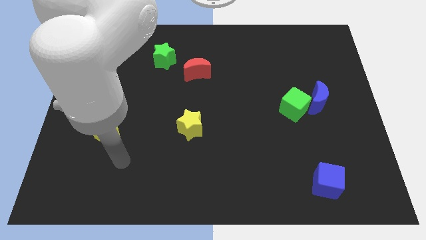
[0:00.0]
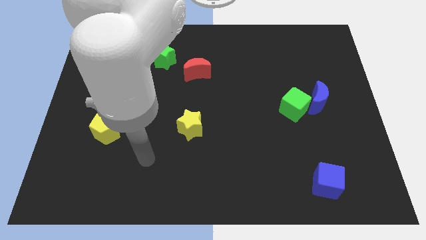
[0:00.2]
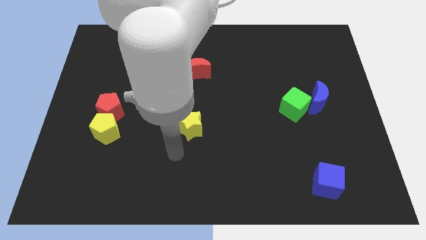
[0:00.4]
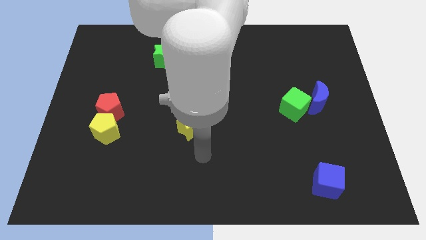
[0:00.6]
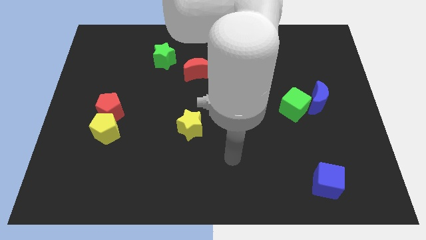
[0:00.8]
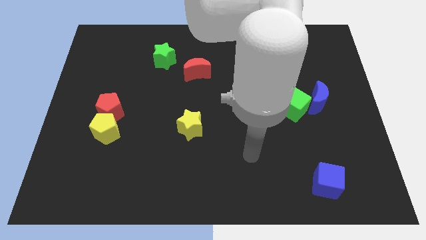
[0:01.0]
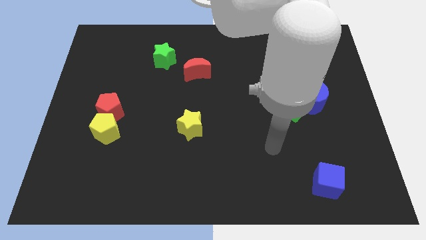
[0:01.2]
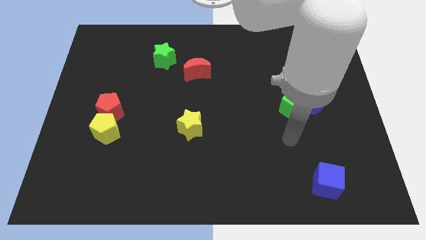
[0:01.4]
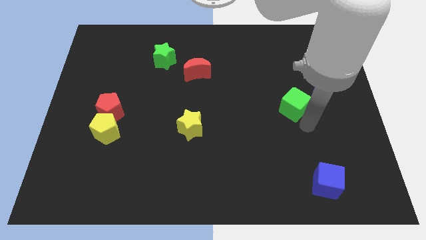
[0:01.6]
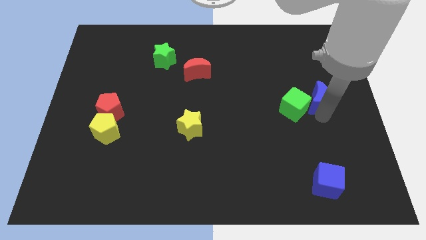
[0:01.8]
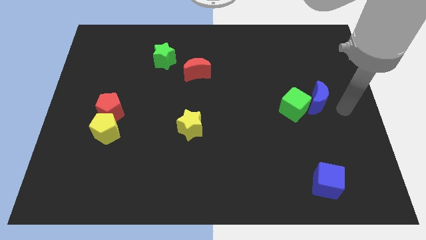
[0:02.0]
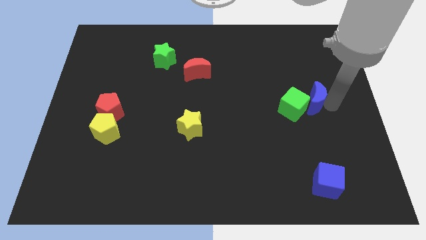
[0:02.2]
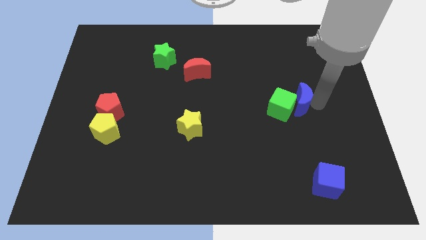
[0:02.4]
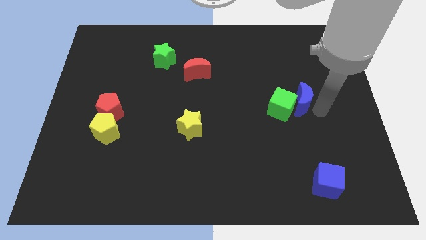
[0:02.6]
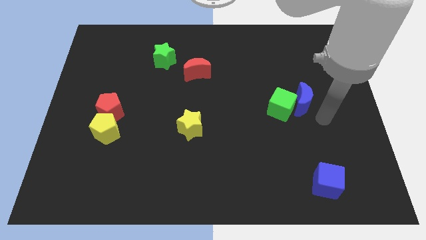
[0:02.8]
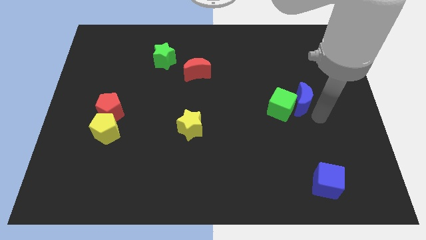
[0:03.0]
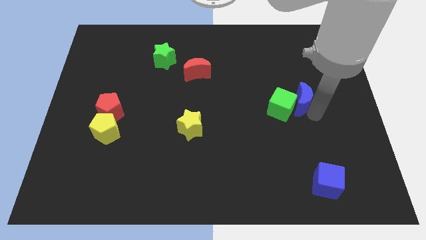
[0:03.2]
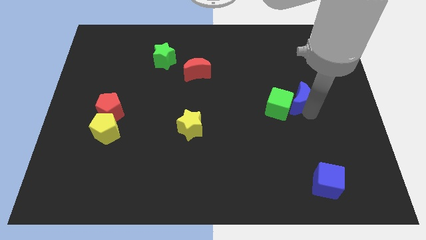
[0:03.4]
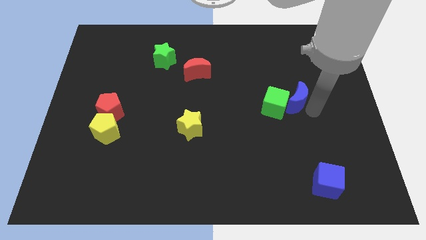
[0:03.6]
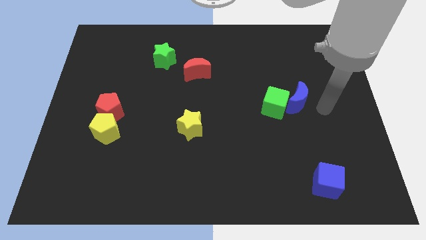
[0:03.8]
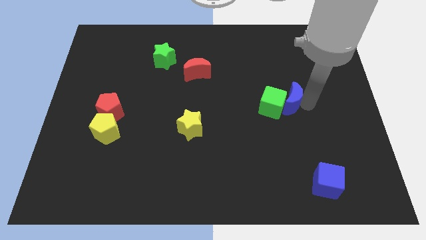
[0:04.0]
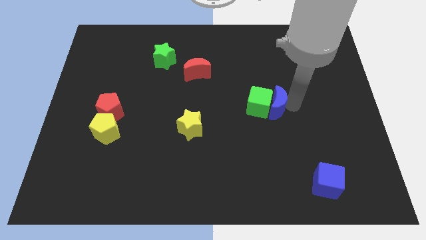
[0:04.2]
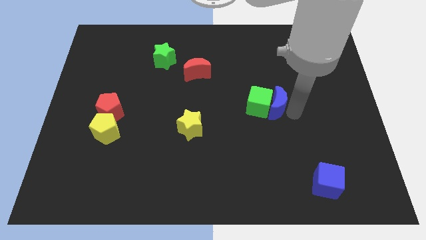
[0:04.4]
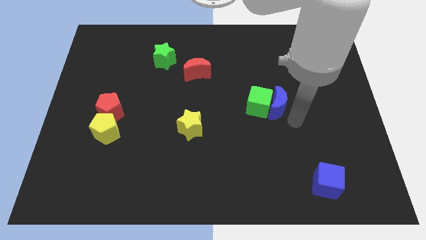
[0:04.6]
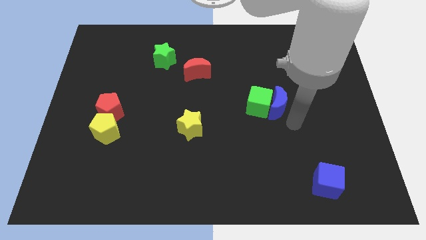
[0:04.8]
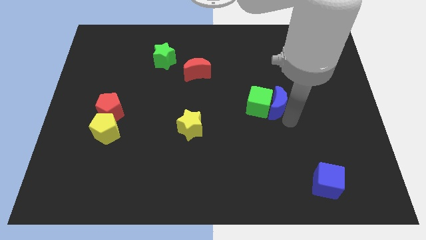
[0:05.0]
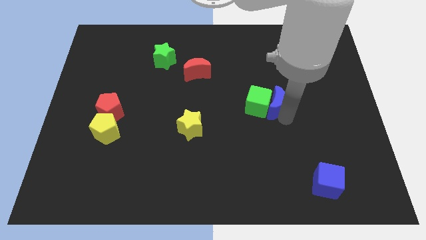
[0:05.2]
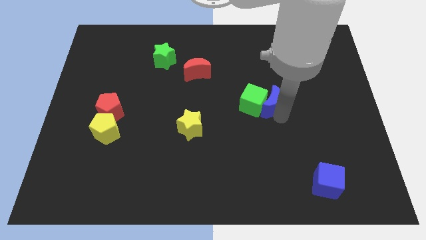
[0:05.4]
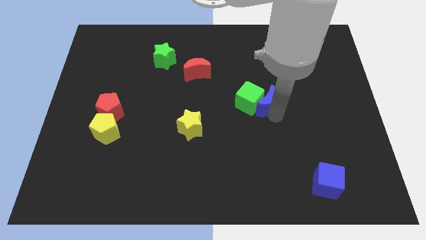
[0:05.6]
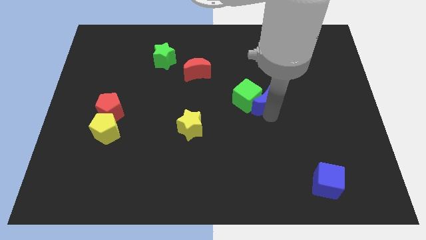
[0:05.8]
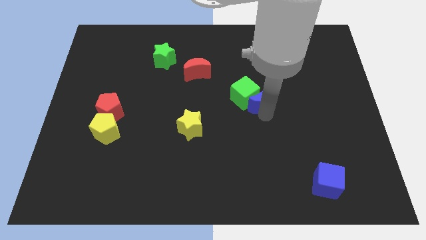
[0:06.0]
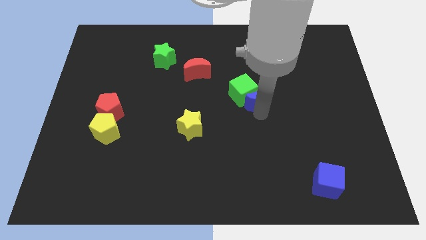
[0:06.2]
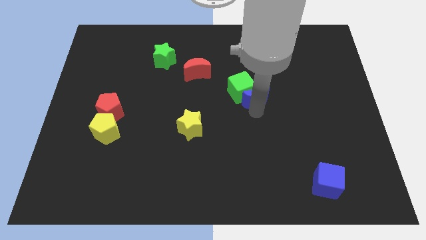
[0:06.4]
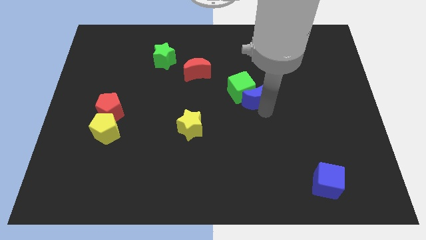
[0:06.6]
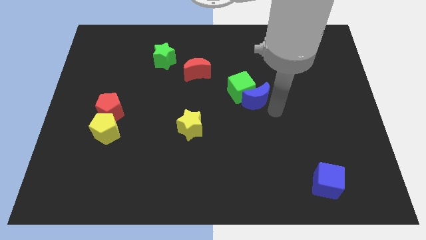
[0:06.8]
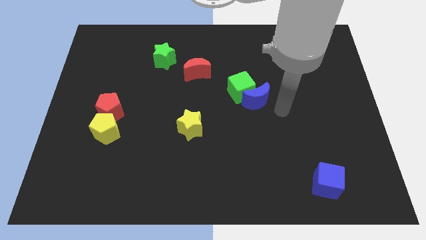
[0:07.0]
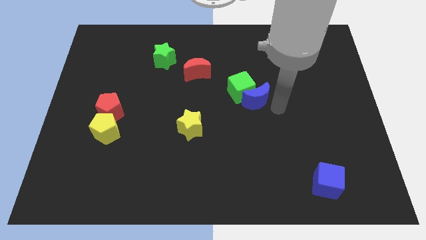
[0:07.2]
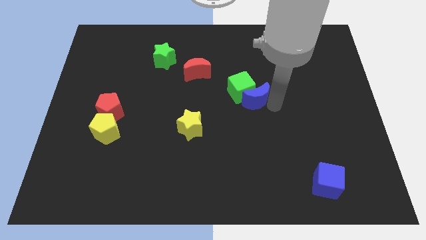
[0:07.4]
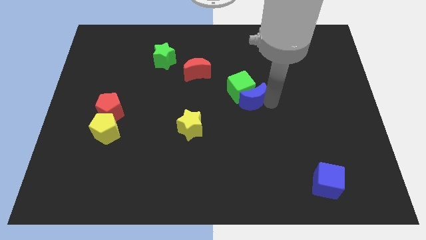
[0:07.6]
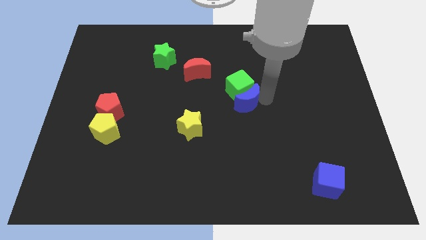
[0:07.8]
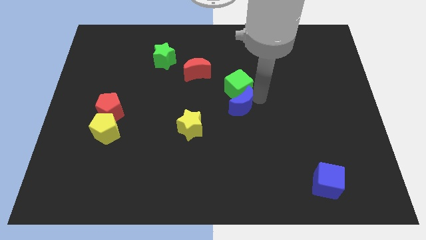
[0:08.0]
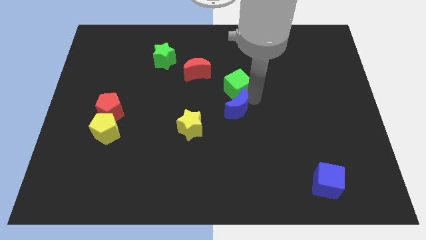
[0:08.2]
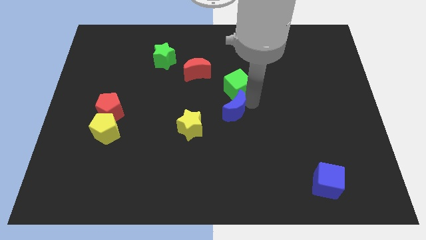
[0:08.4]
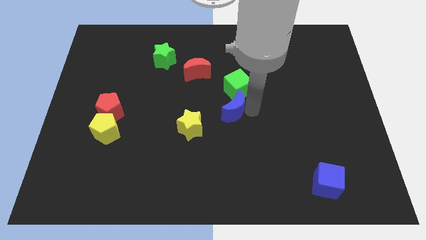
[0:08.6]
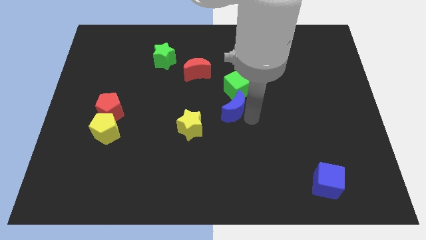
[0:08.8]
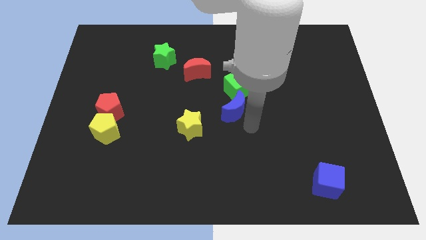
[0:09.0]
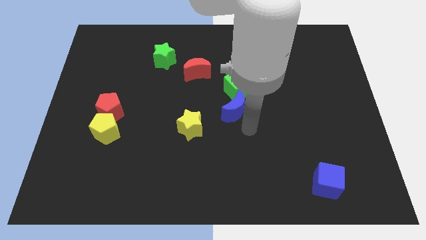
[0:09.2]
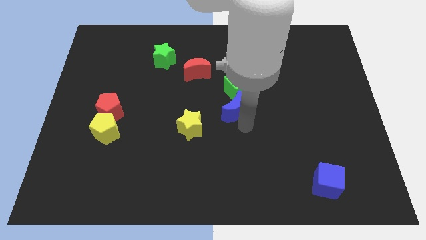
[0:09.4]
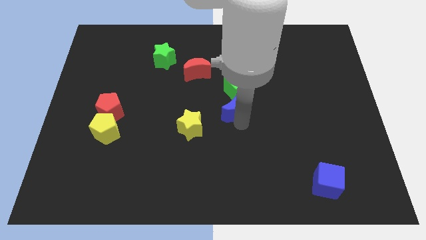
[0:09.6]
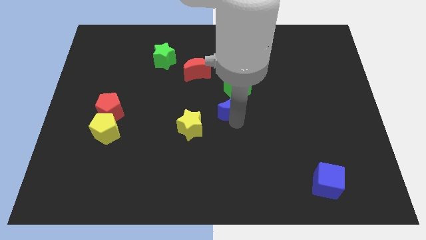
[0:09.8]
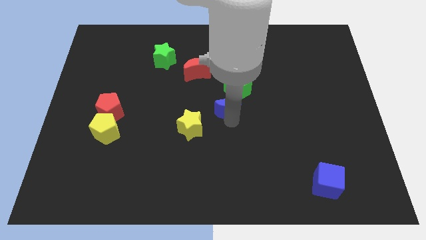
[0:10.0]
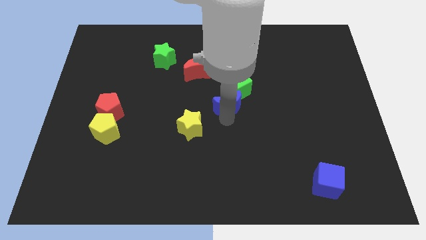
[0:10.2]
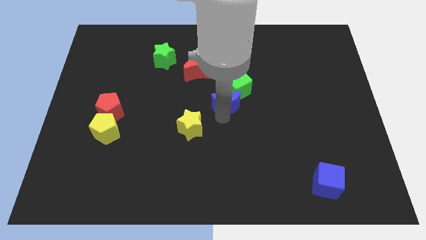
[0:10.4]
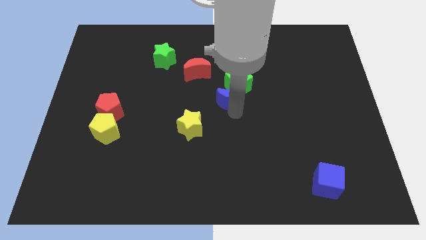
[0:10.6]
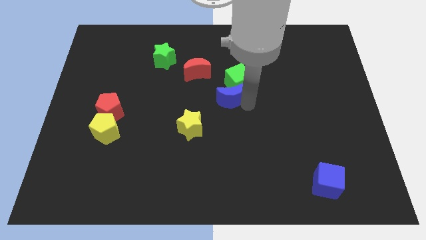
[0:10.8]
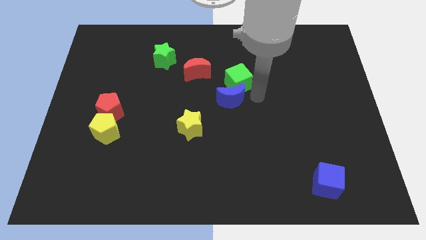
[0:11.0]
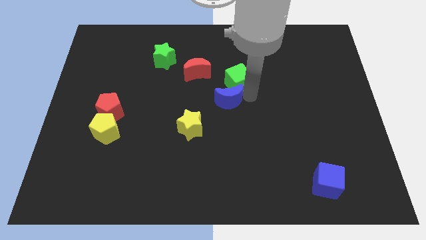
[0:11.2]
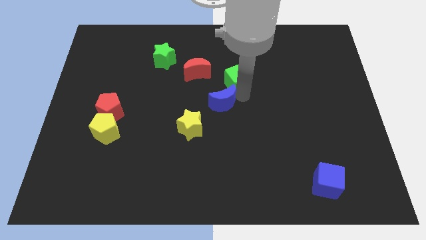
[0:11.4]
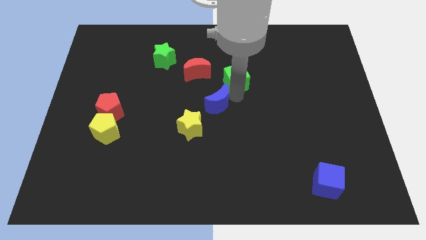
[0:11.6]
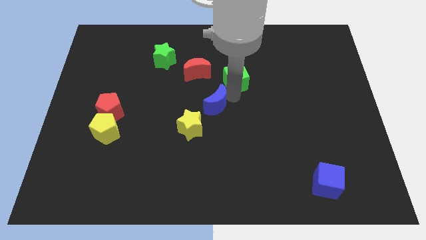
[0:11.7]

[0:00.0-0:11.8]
move the blue moon to the bottom of the red moon
